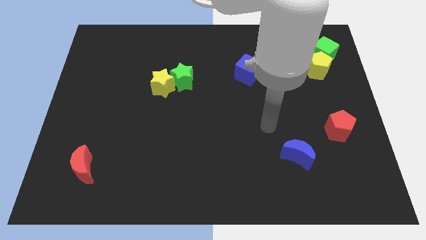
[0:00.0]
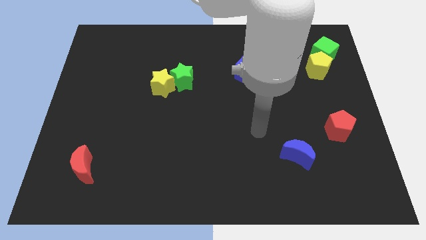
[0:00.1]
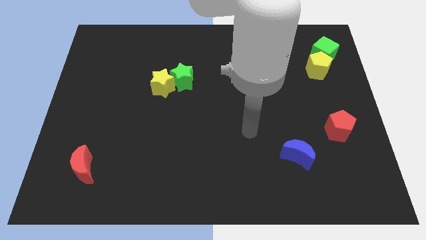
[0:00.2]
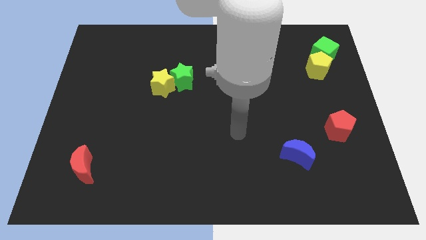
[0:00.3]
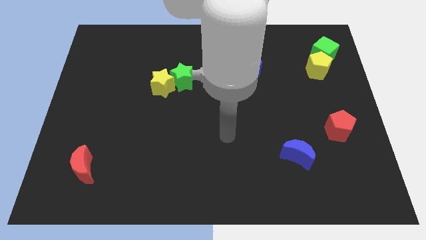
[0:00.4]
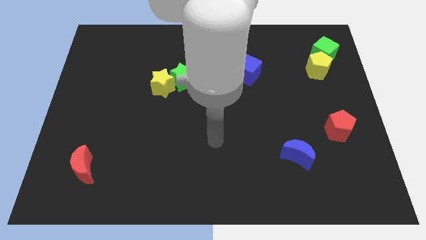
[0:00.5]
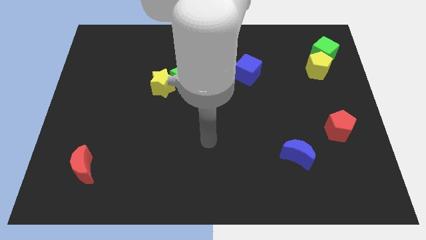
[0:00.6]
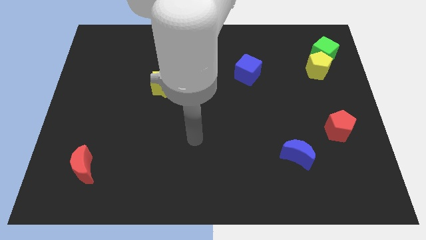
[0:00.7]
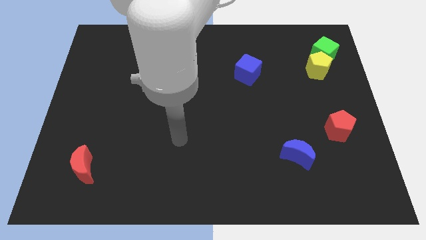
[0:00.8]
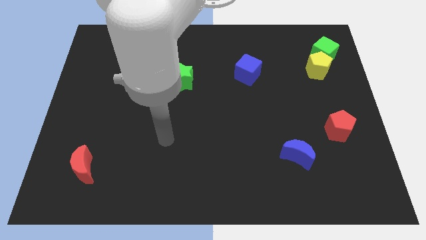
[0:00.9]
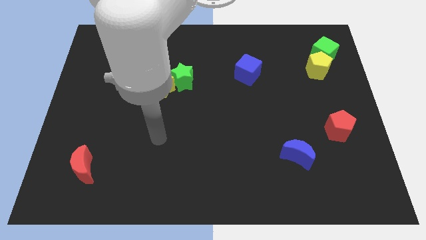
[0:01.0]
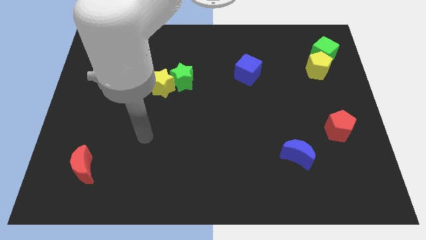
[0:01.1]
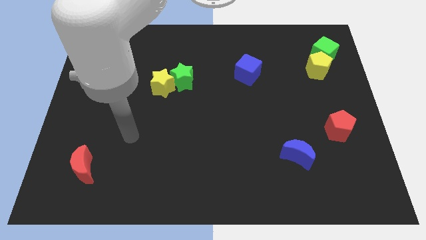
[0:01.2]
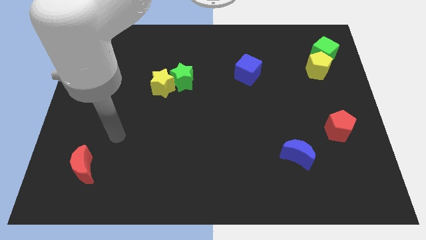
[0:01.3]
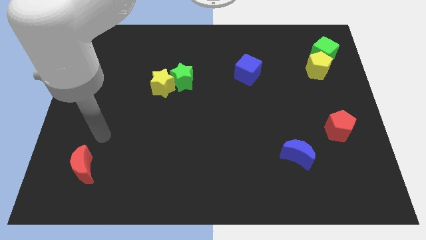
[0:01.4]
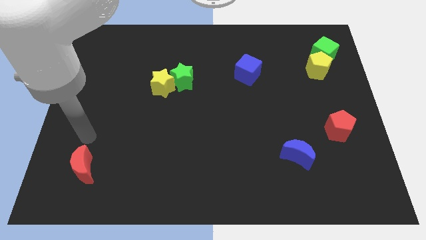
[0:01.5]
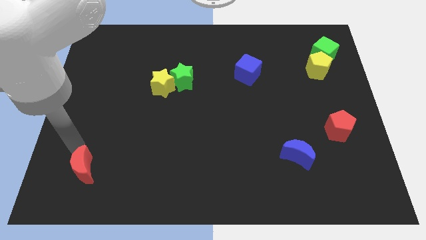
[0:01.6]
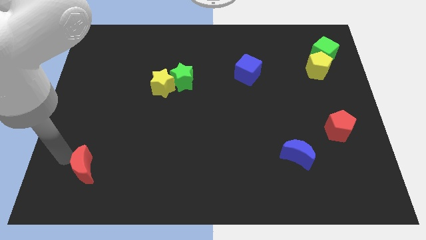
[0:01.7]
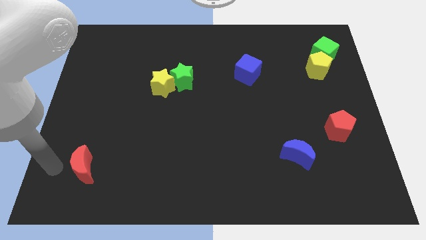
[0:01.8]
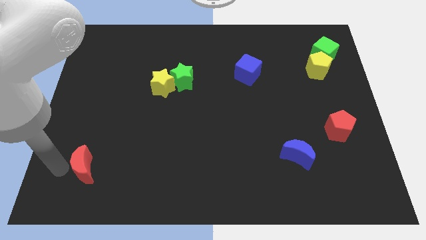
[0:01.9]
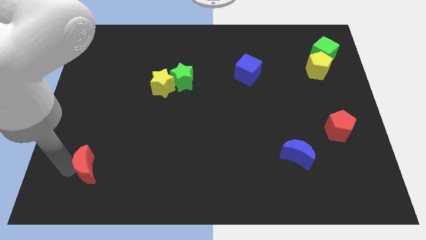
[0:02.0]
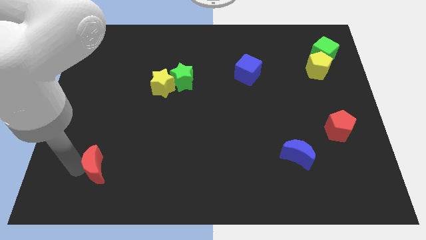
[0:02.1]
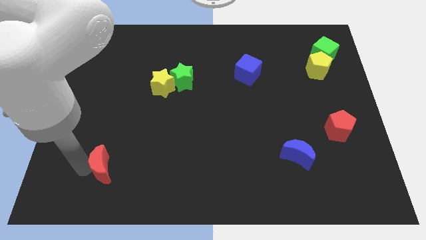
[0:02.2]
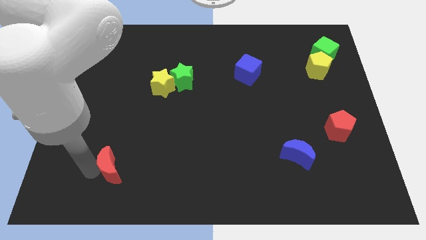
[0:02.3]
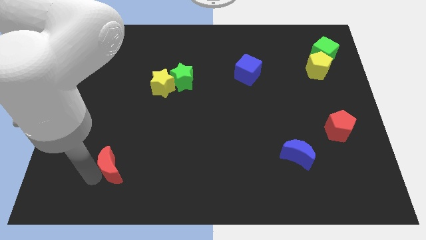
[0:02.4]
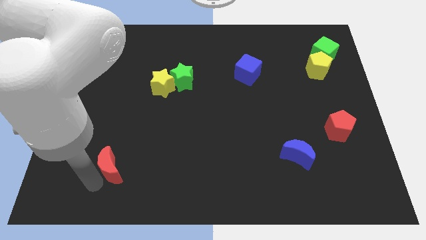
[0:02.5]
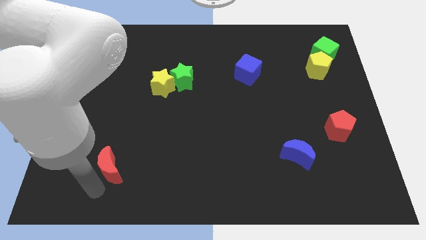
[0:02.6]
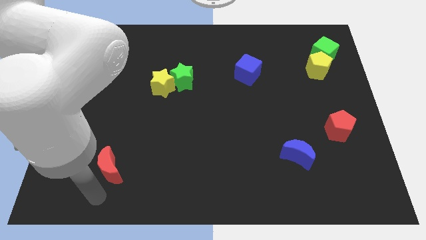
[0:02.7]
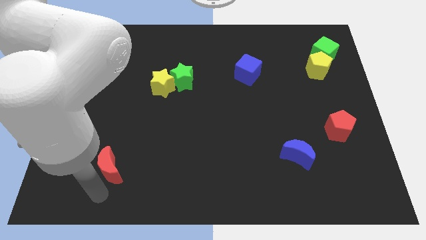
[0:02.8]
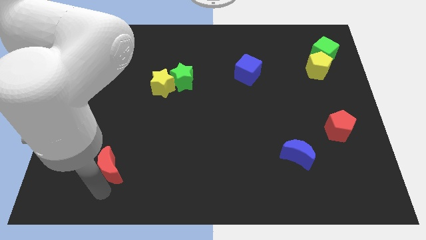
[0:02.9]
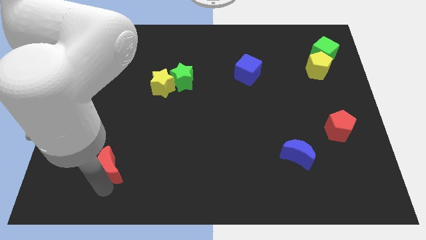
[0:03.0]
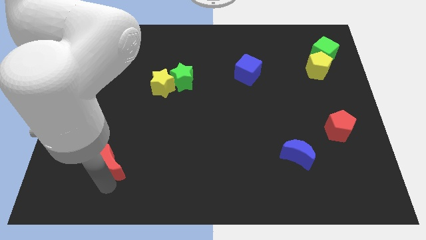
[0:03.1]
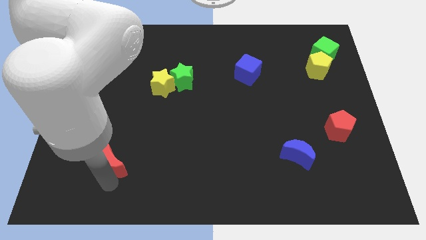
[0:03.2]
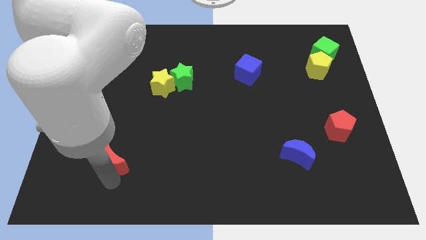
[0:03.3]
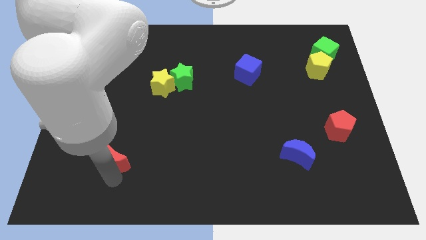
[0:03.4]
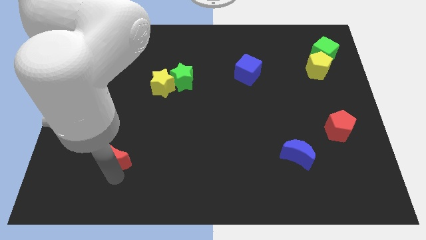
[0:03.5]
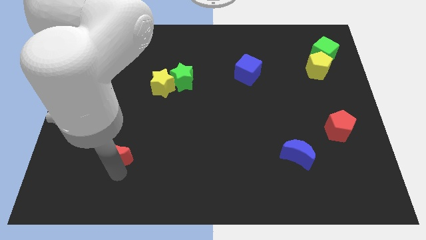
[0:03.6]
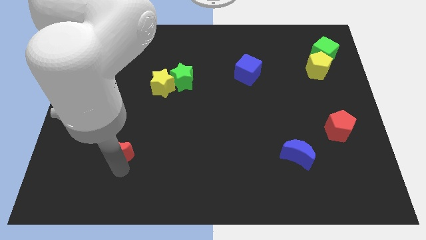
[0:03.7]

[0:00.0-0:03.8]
slide the red moon slightly up and to the right

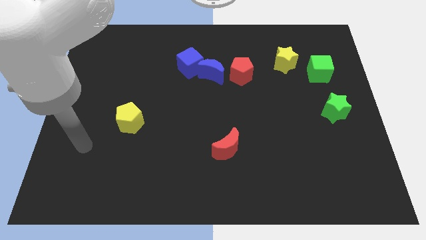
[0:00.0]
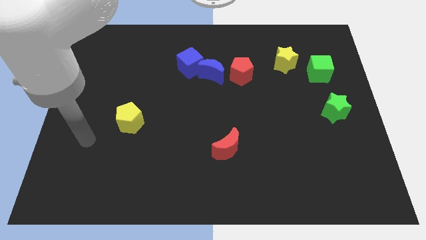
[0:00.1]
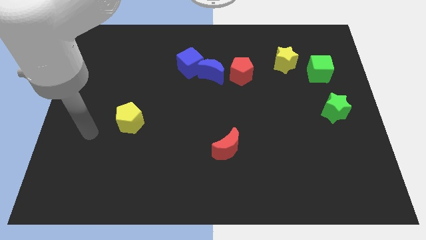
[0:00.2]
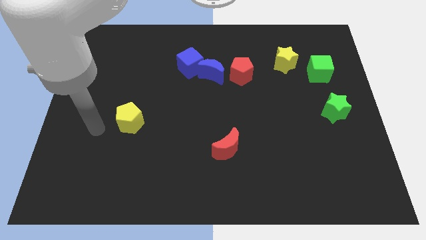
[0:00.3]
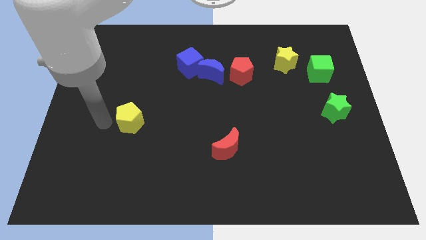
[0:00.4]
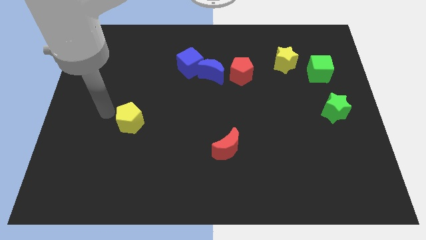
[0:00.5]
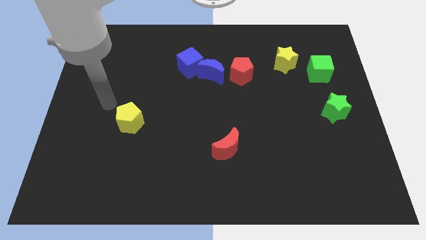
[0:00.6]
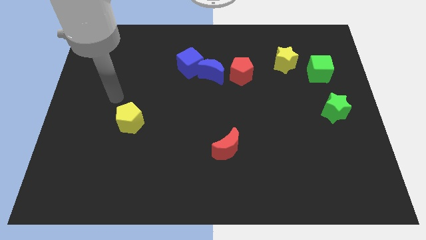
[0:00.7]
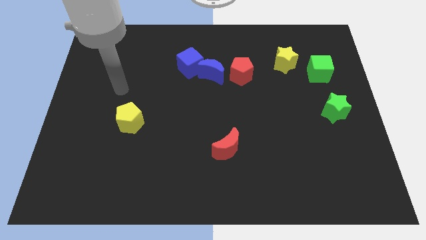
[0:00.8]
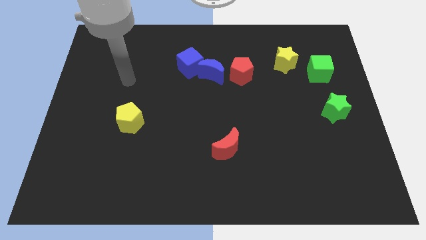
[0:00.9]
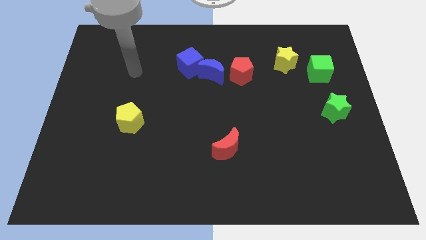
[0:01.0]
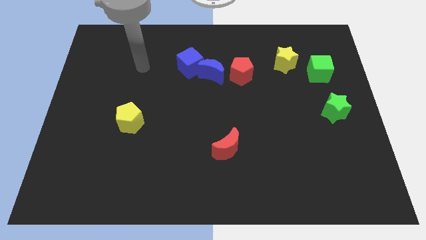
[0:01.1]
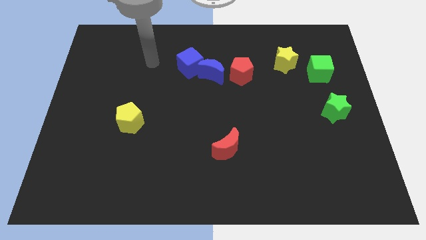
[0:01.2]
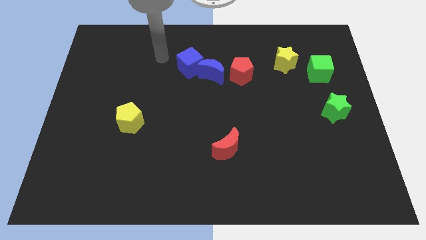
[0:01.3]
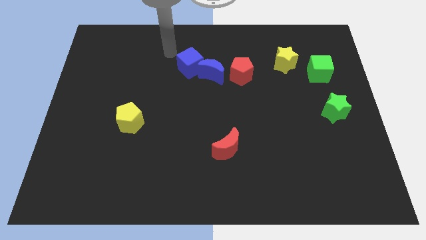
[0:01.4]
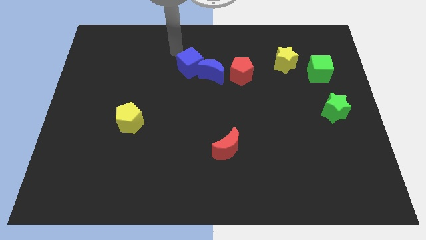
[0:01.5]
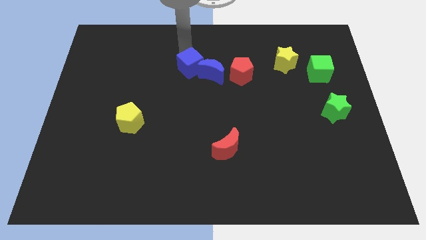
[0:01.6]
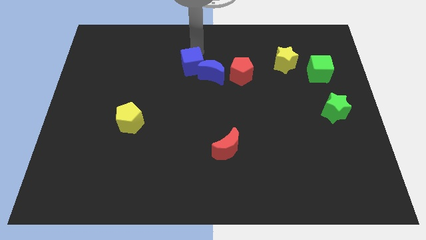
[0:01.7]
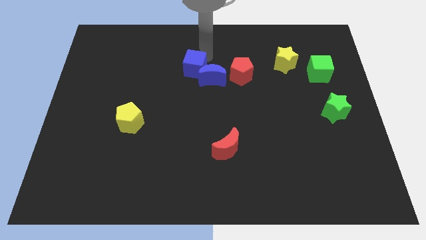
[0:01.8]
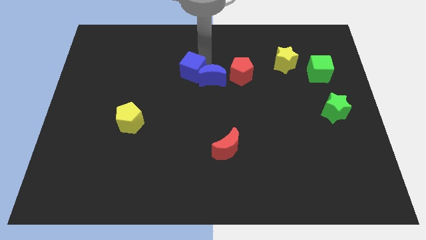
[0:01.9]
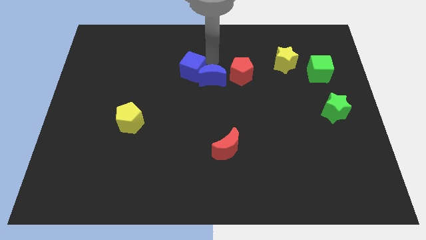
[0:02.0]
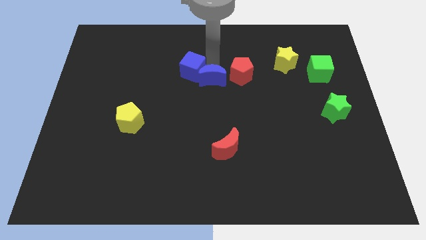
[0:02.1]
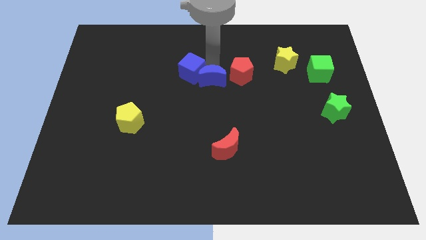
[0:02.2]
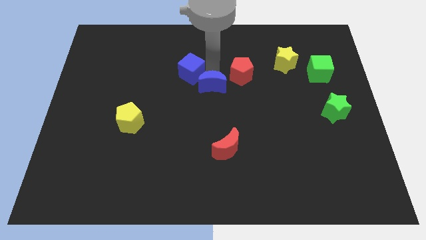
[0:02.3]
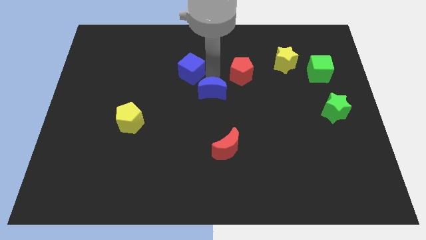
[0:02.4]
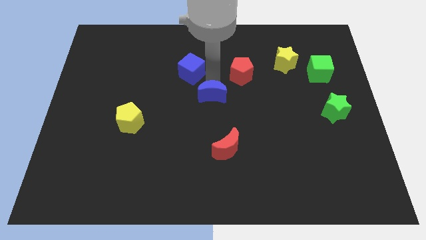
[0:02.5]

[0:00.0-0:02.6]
slightly slide the blue moon downwards

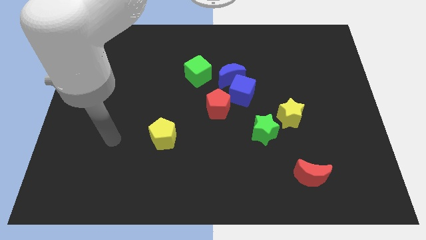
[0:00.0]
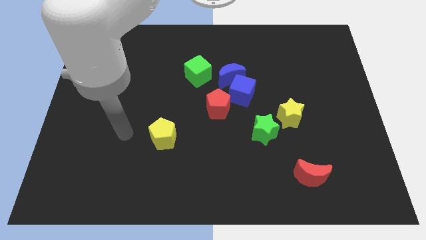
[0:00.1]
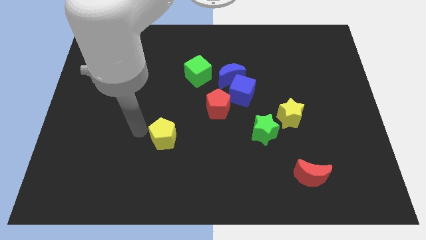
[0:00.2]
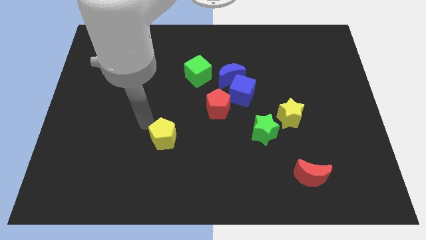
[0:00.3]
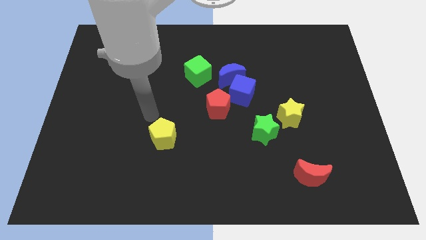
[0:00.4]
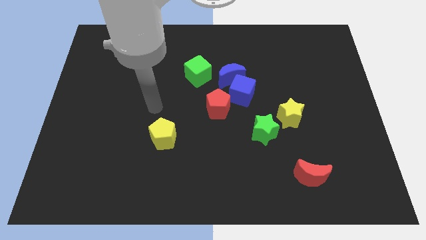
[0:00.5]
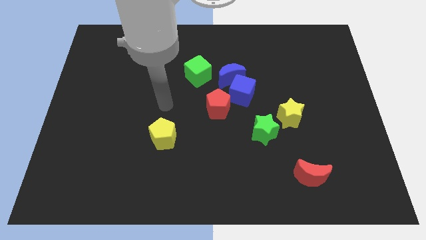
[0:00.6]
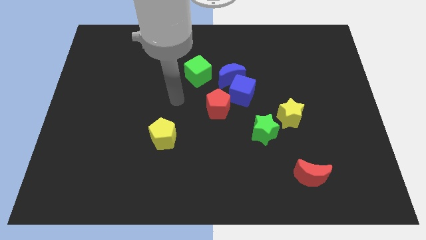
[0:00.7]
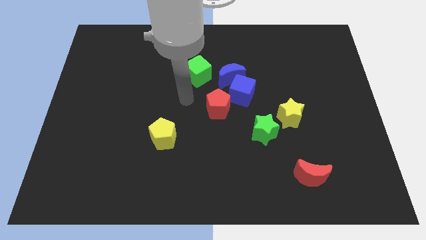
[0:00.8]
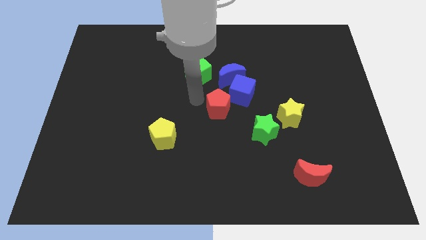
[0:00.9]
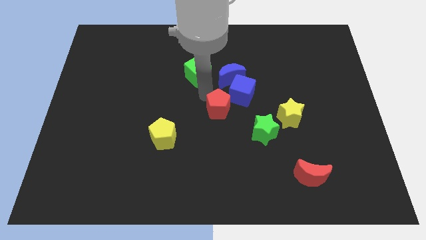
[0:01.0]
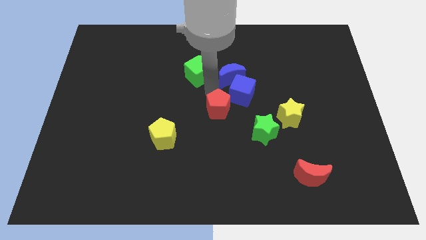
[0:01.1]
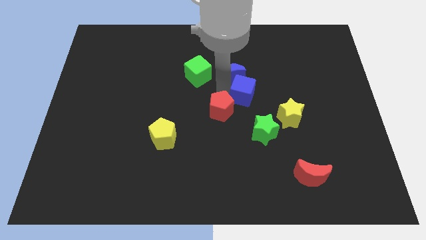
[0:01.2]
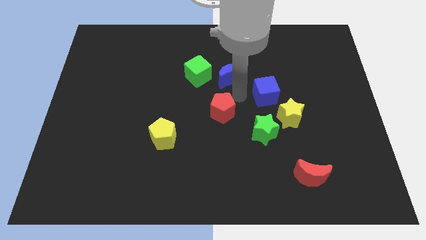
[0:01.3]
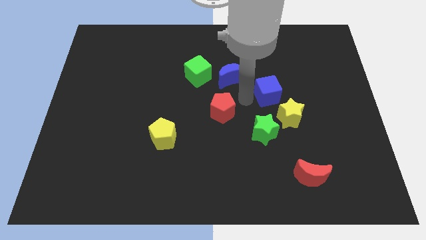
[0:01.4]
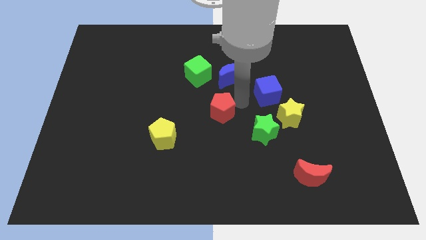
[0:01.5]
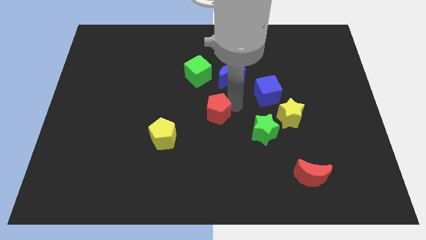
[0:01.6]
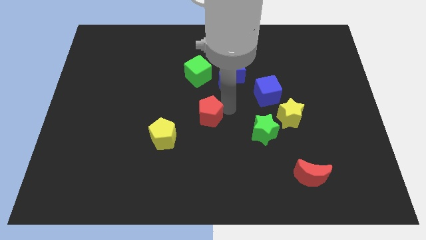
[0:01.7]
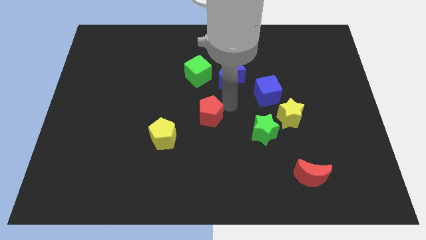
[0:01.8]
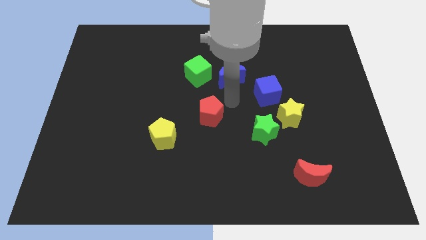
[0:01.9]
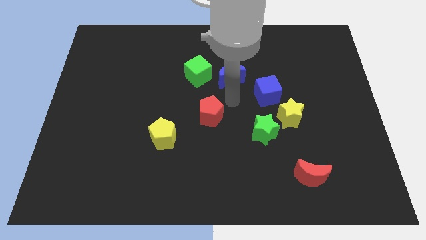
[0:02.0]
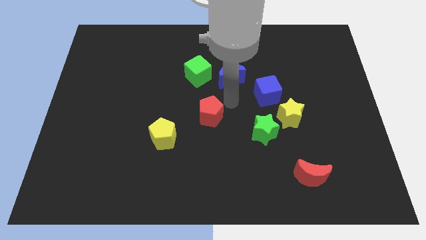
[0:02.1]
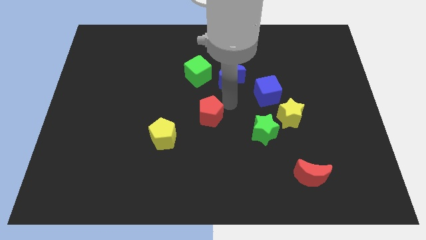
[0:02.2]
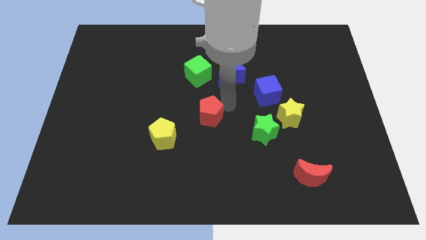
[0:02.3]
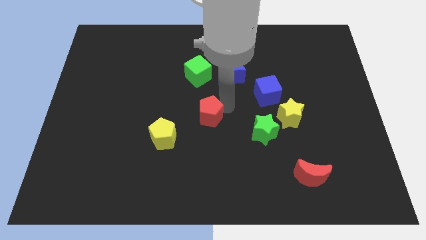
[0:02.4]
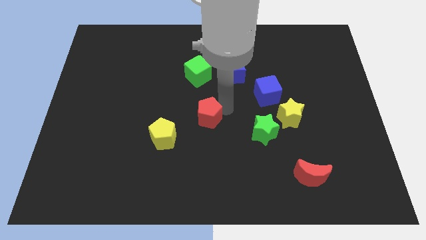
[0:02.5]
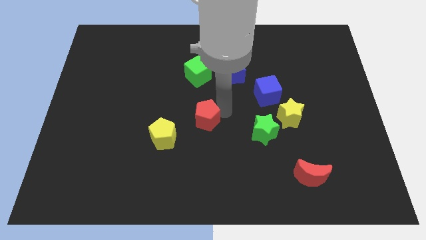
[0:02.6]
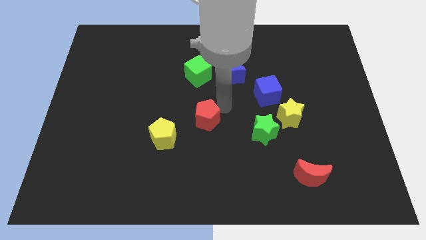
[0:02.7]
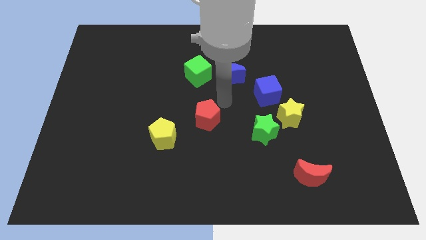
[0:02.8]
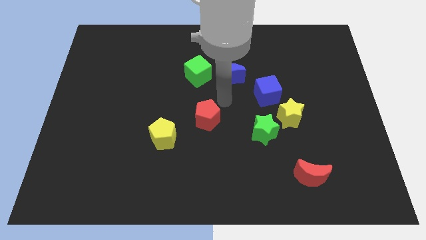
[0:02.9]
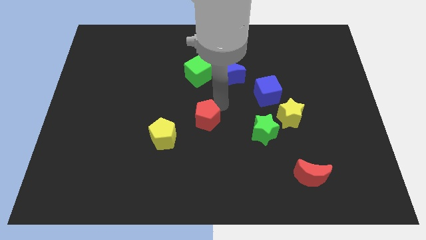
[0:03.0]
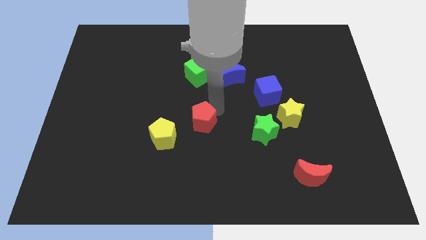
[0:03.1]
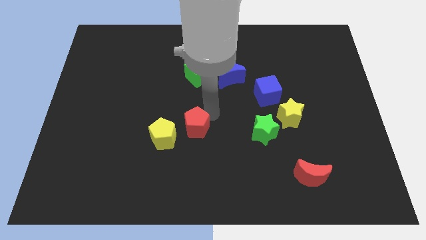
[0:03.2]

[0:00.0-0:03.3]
move the red pentagon downwards and left diagonally slightly
